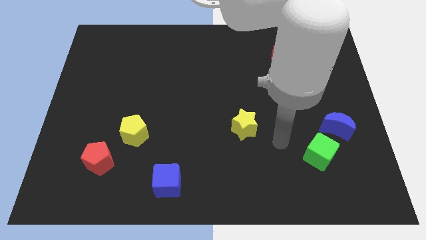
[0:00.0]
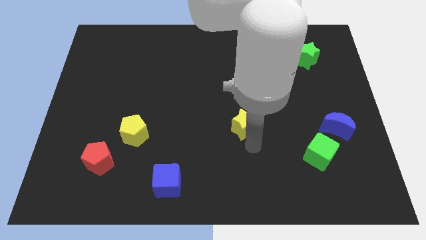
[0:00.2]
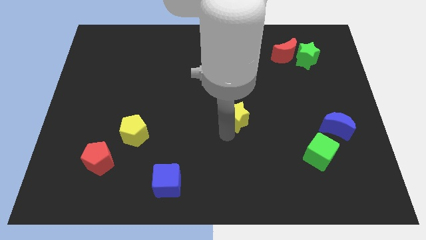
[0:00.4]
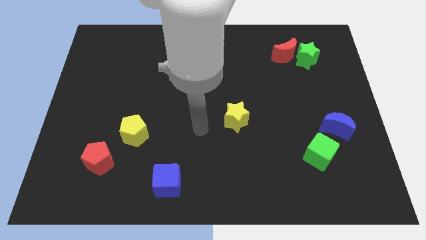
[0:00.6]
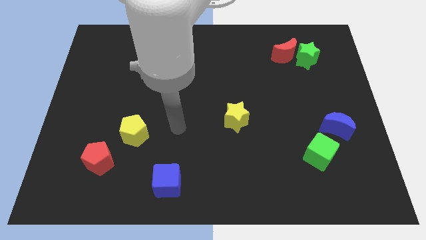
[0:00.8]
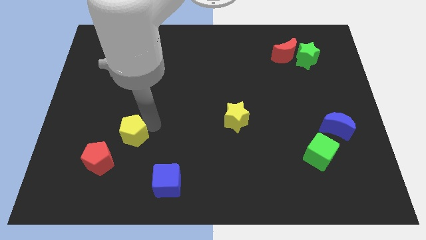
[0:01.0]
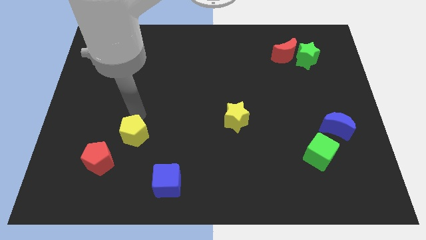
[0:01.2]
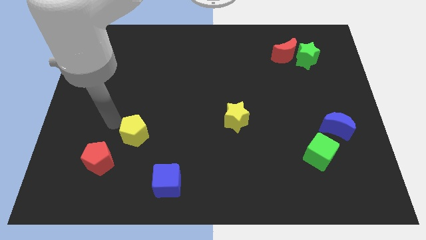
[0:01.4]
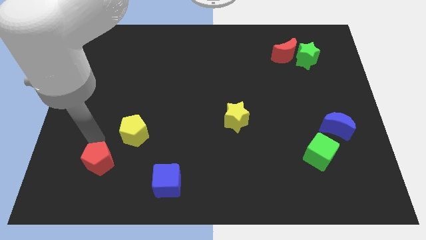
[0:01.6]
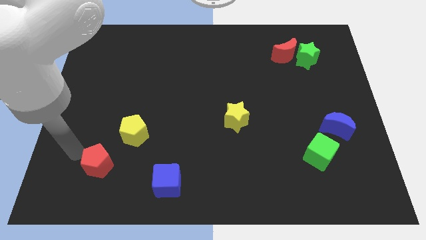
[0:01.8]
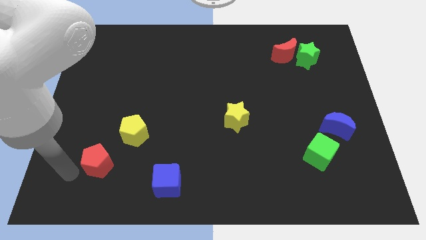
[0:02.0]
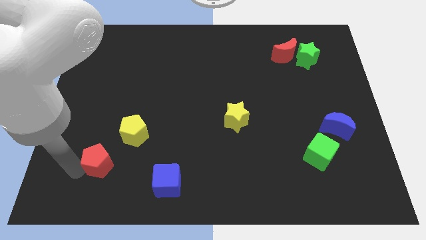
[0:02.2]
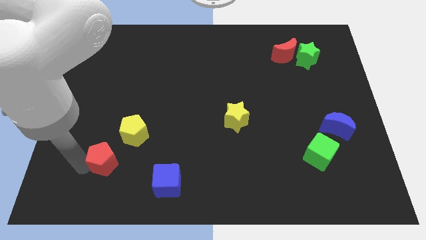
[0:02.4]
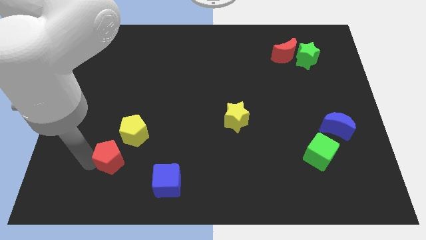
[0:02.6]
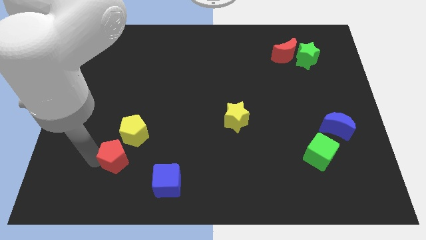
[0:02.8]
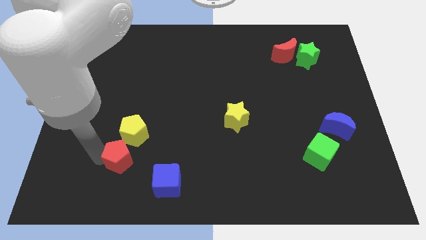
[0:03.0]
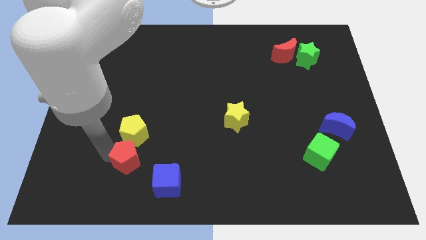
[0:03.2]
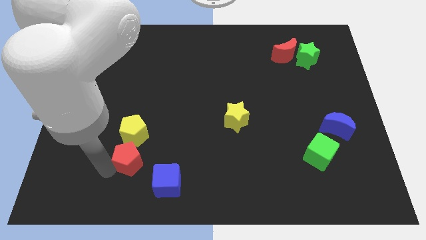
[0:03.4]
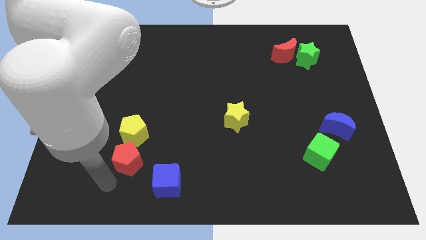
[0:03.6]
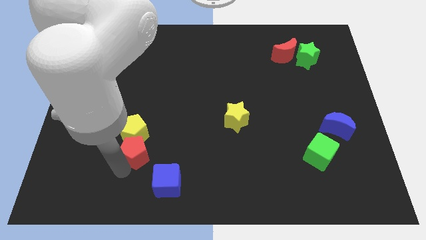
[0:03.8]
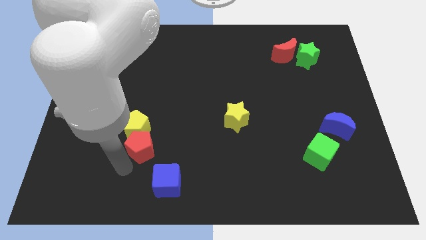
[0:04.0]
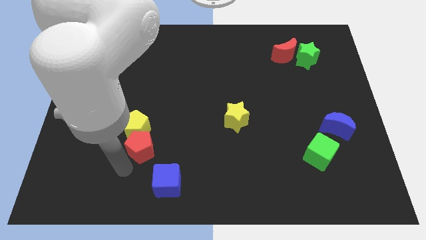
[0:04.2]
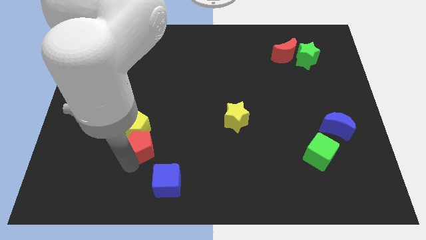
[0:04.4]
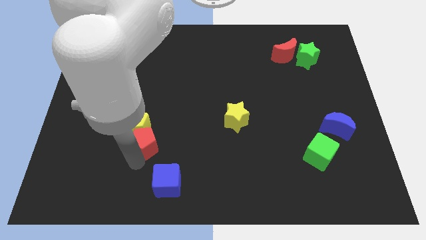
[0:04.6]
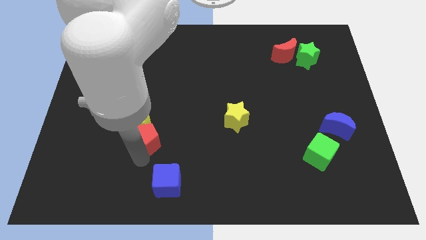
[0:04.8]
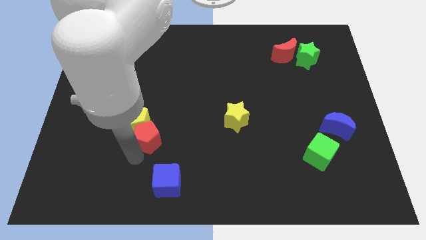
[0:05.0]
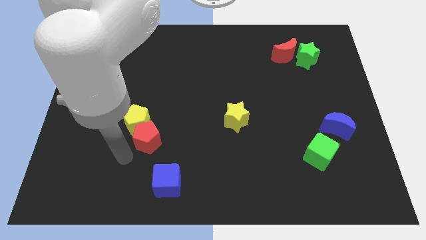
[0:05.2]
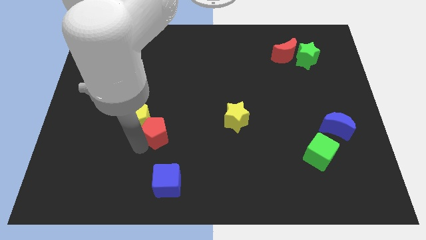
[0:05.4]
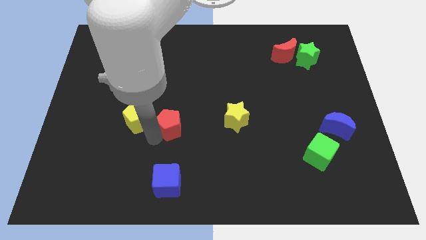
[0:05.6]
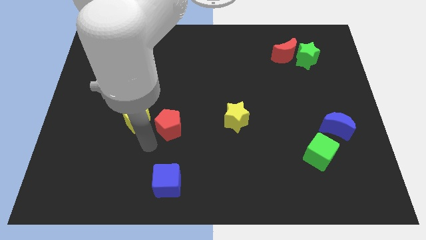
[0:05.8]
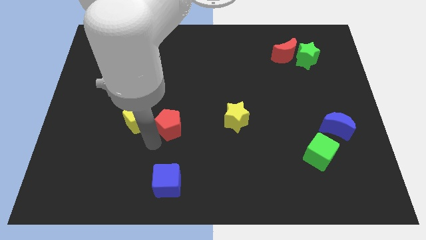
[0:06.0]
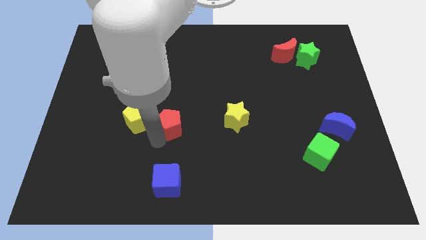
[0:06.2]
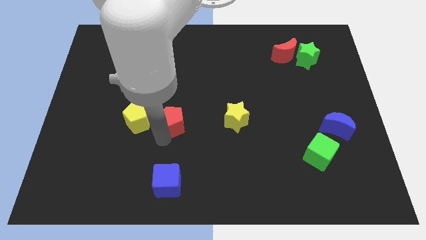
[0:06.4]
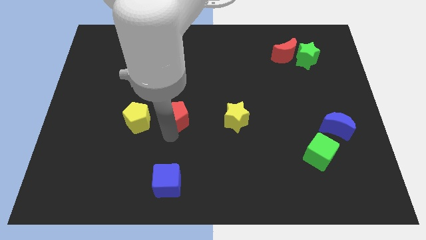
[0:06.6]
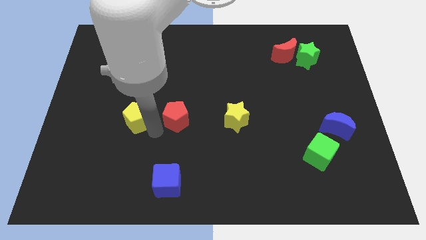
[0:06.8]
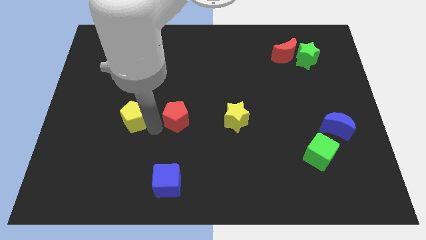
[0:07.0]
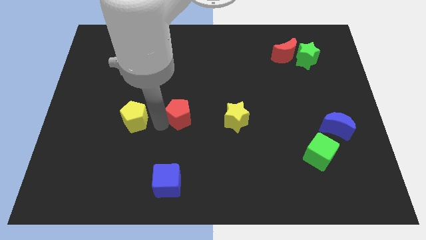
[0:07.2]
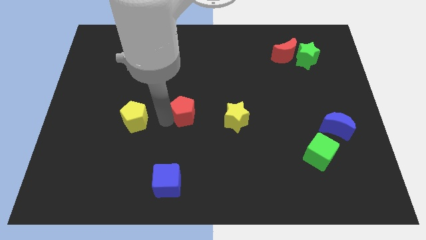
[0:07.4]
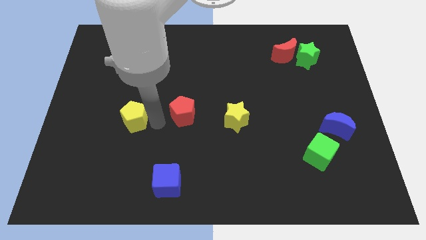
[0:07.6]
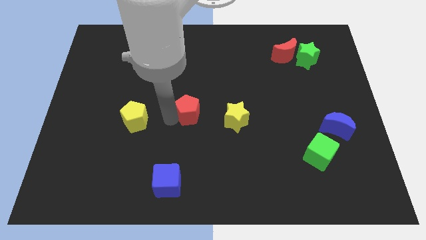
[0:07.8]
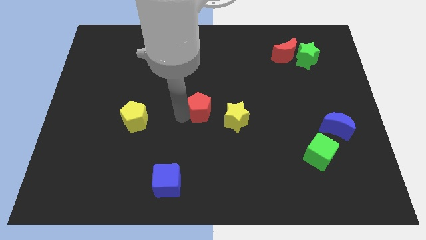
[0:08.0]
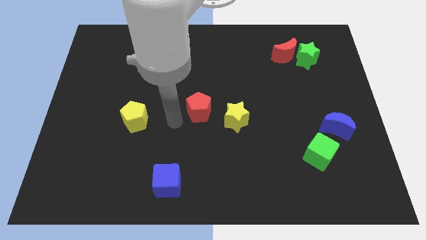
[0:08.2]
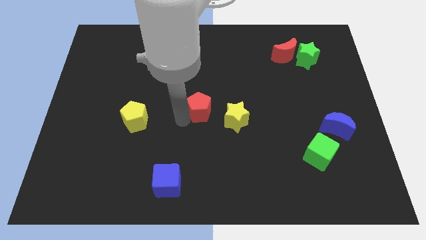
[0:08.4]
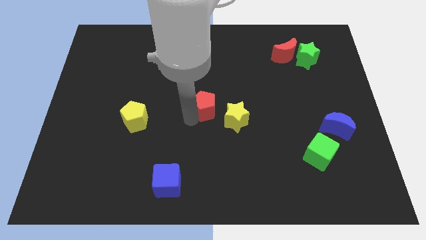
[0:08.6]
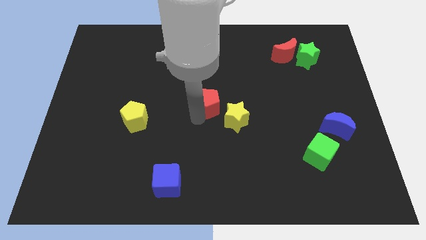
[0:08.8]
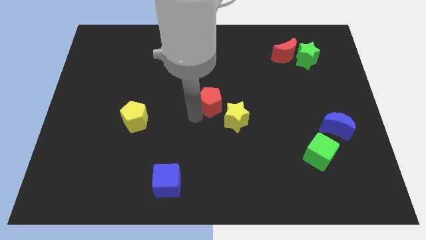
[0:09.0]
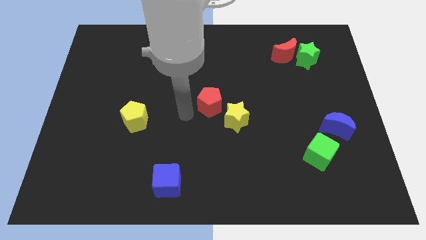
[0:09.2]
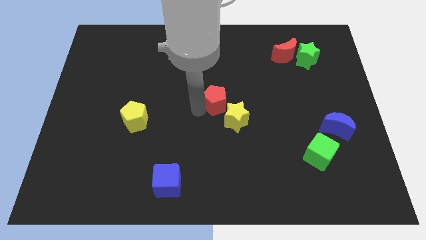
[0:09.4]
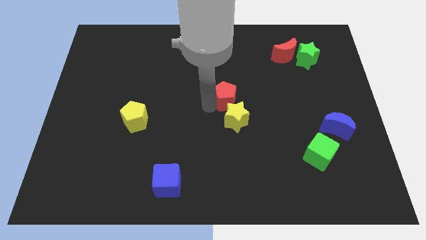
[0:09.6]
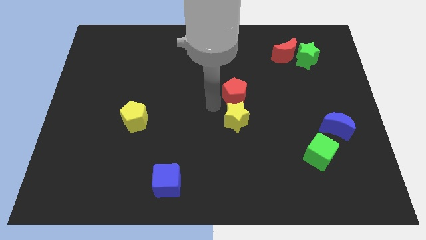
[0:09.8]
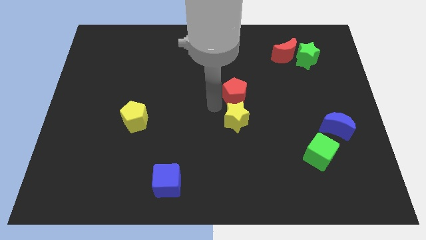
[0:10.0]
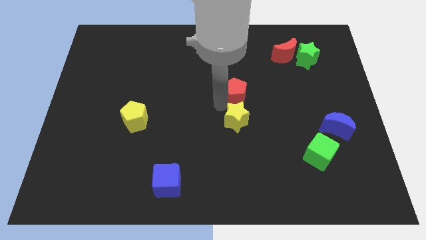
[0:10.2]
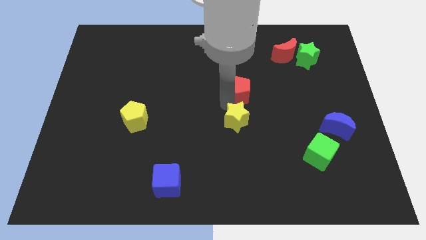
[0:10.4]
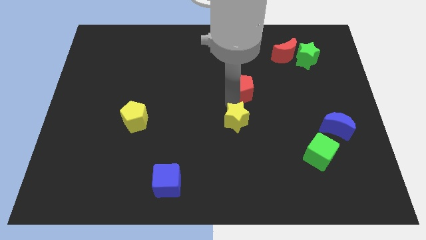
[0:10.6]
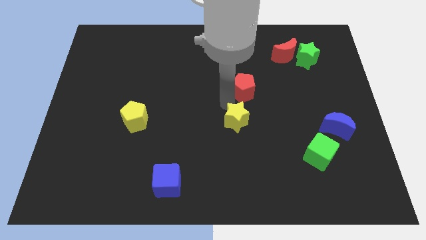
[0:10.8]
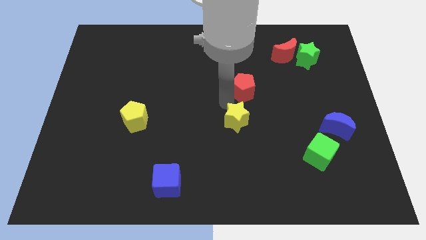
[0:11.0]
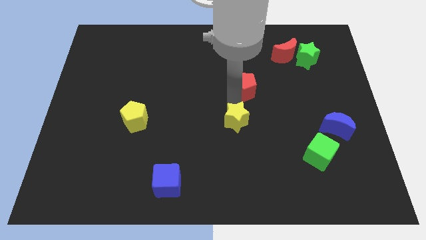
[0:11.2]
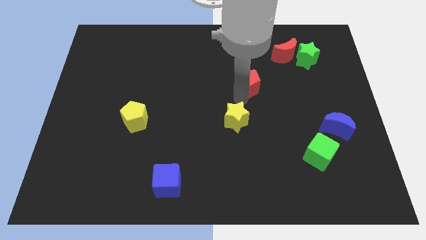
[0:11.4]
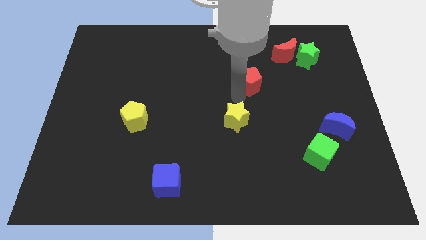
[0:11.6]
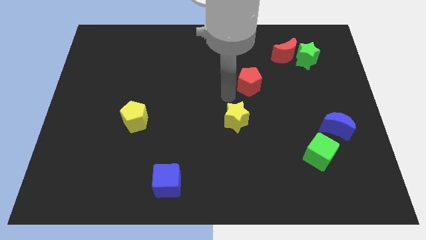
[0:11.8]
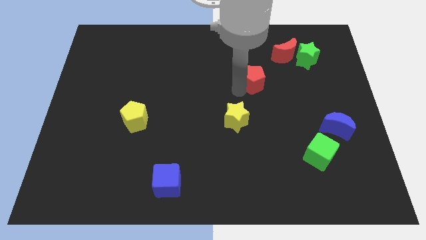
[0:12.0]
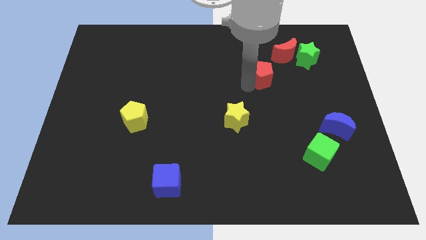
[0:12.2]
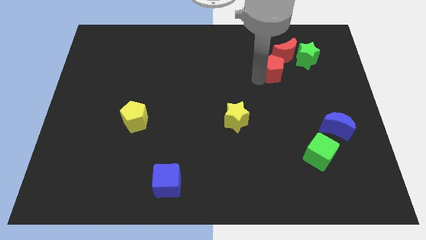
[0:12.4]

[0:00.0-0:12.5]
push the red pentagon to the bottom left of the green star

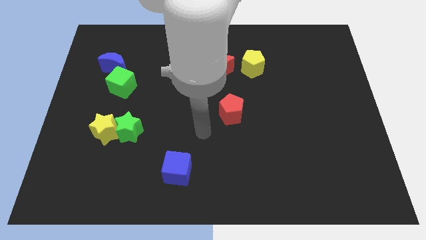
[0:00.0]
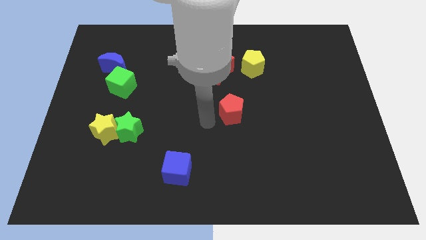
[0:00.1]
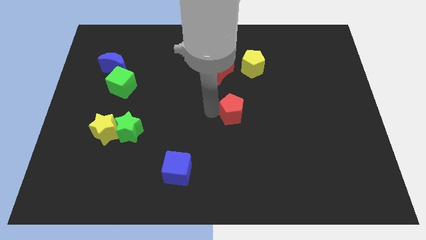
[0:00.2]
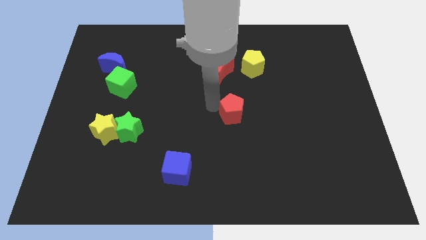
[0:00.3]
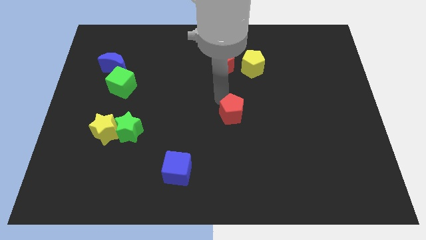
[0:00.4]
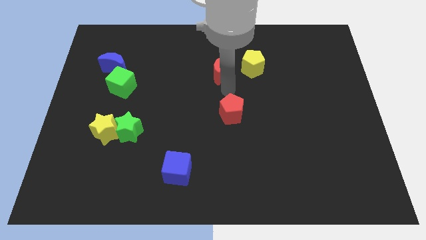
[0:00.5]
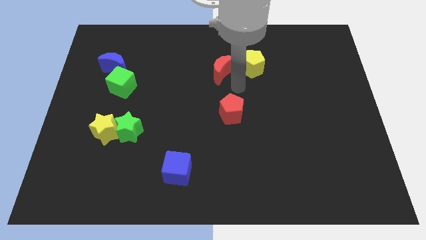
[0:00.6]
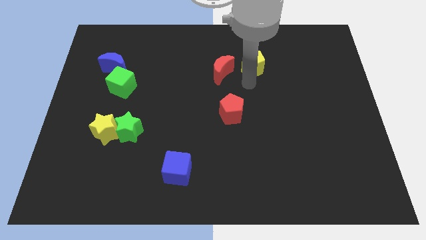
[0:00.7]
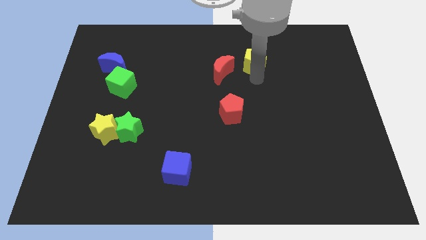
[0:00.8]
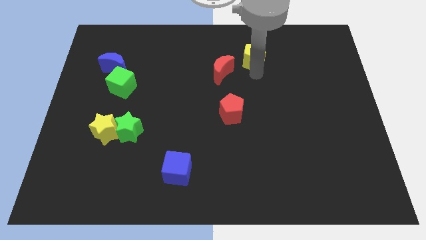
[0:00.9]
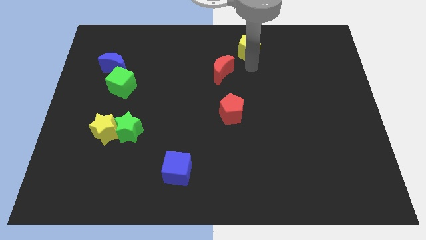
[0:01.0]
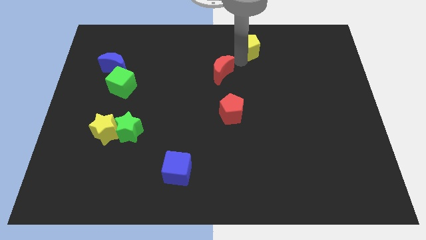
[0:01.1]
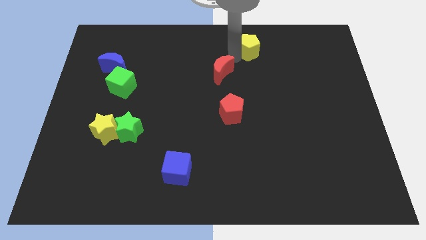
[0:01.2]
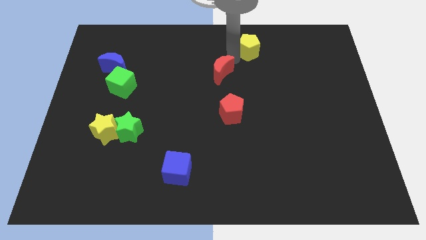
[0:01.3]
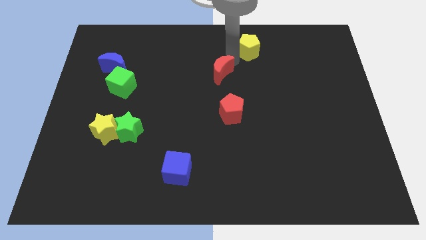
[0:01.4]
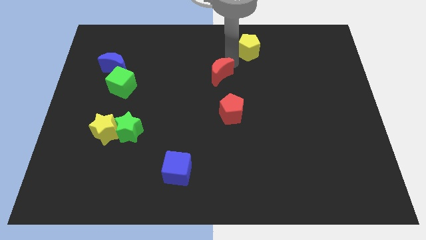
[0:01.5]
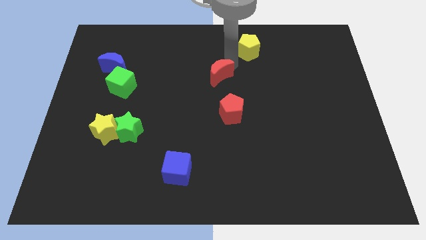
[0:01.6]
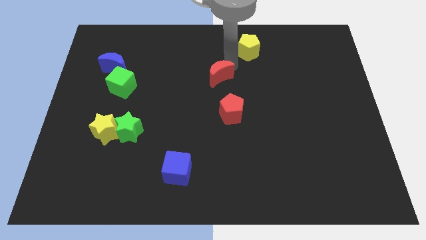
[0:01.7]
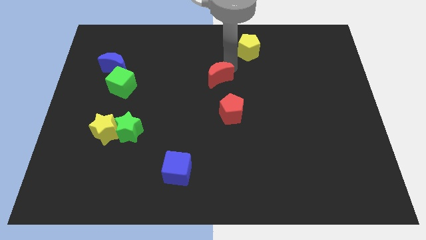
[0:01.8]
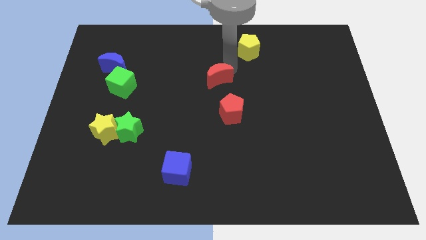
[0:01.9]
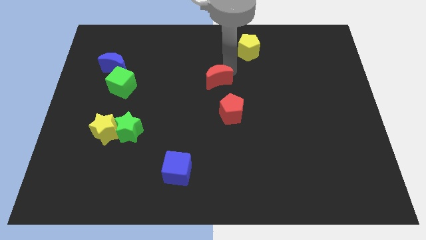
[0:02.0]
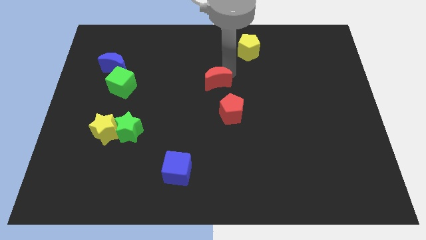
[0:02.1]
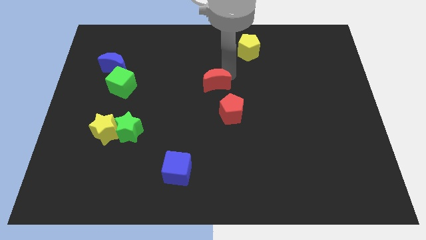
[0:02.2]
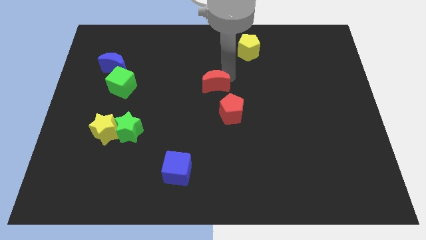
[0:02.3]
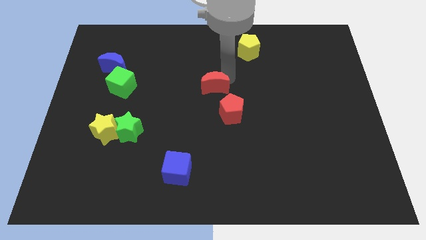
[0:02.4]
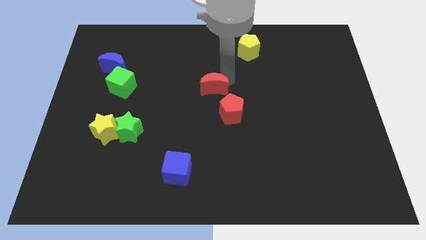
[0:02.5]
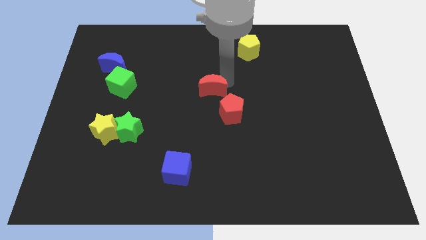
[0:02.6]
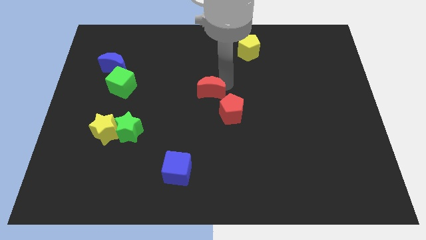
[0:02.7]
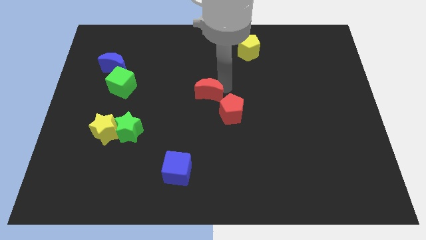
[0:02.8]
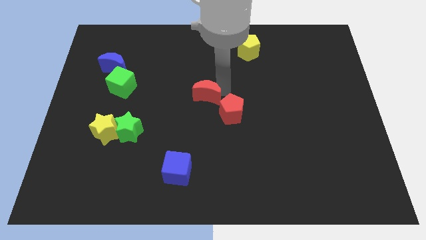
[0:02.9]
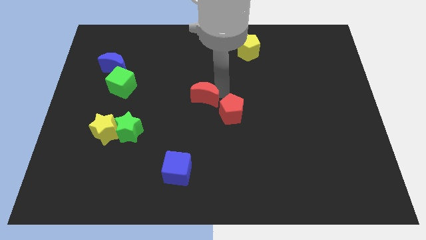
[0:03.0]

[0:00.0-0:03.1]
put the red moon to the left of the red pentagon
